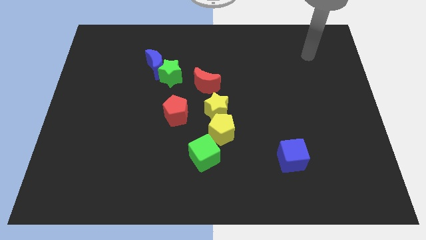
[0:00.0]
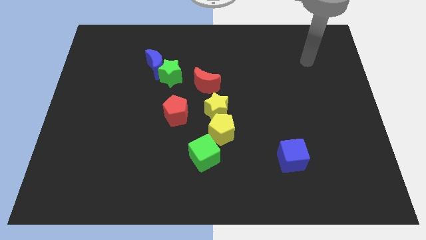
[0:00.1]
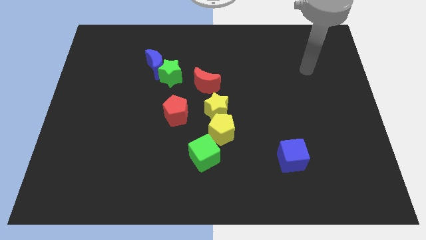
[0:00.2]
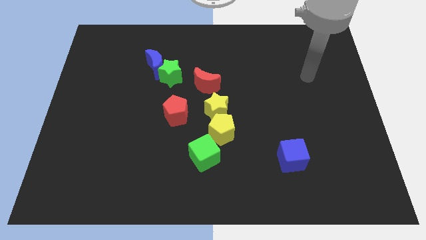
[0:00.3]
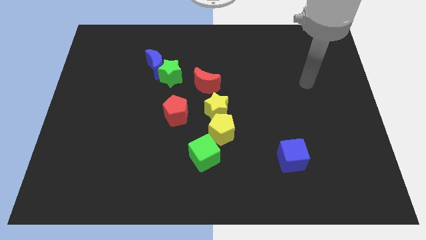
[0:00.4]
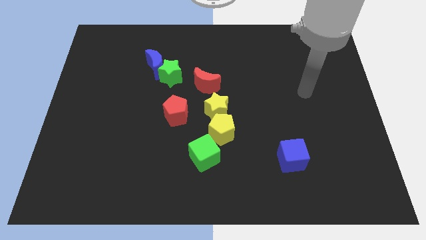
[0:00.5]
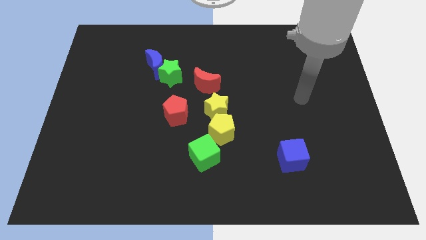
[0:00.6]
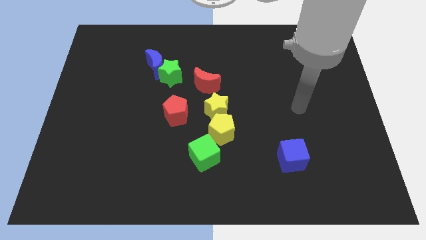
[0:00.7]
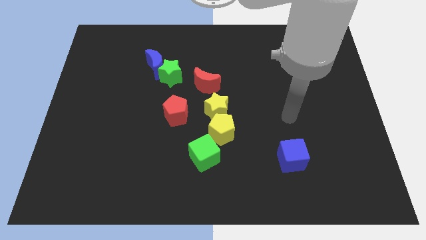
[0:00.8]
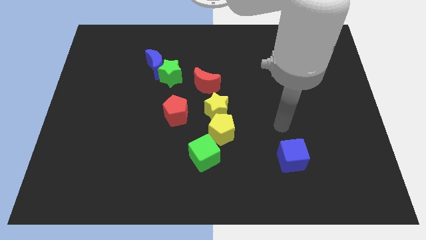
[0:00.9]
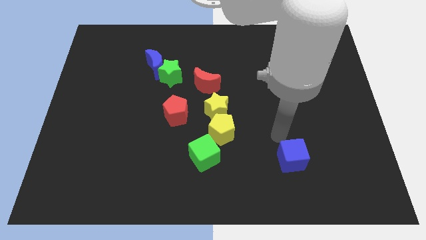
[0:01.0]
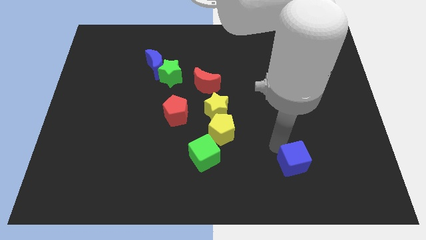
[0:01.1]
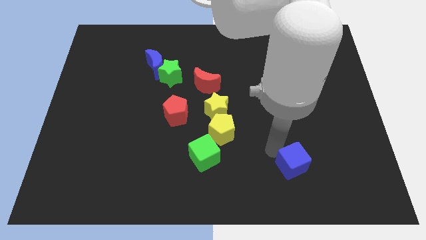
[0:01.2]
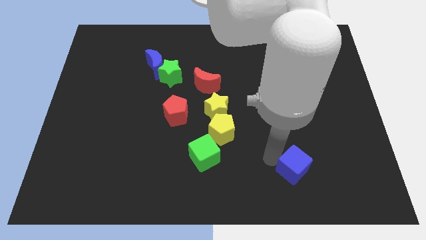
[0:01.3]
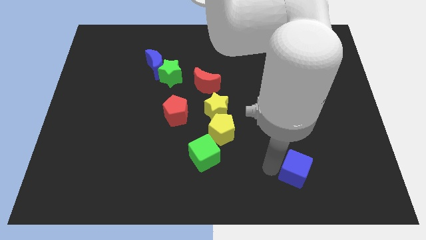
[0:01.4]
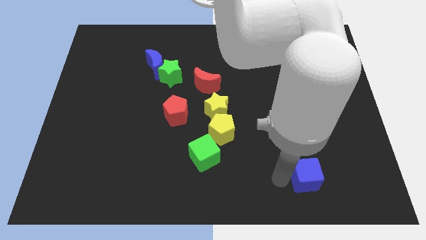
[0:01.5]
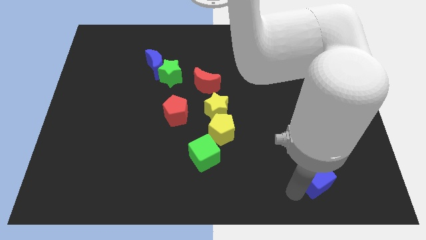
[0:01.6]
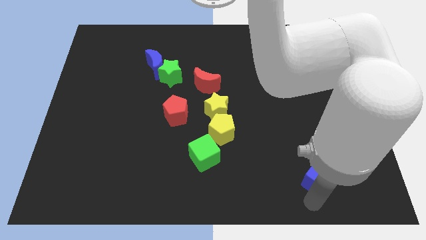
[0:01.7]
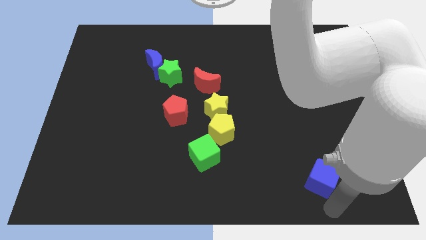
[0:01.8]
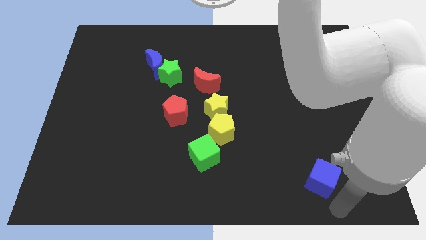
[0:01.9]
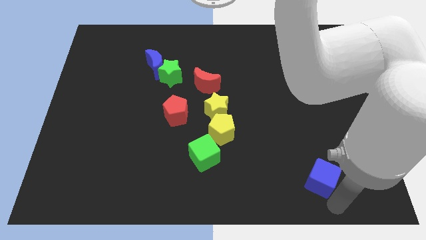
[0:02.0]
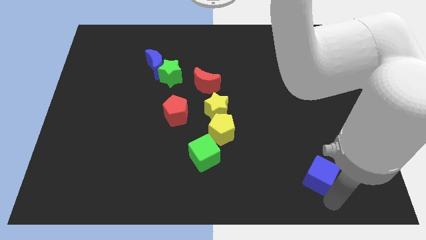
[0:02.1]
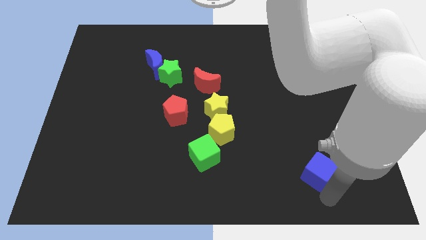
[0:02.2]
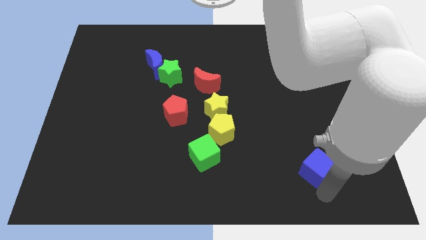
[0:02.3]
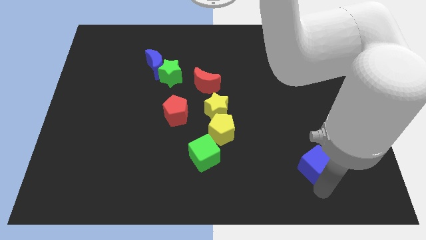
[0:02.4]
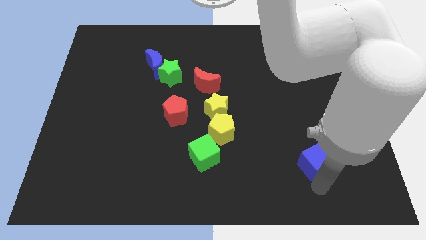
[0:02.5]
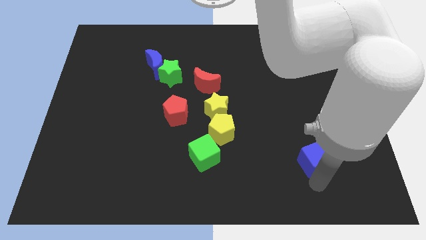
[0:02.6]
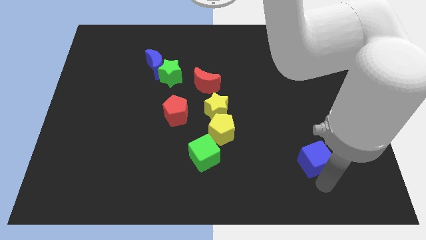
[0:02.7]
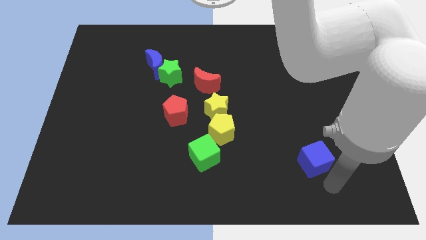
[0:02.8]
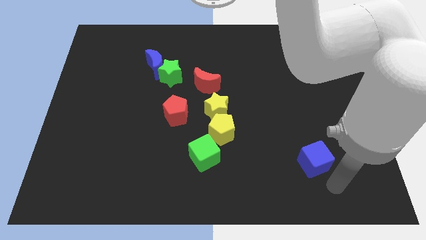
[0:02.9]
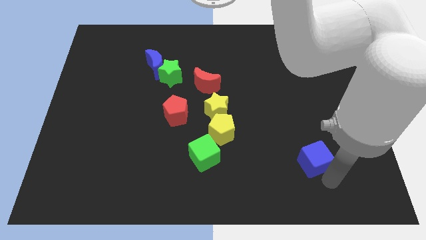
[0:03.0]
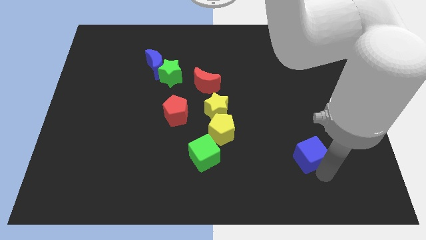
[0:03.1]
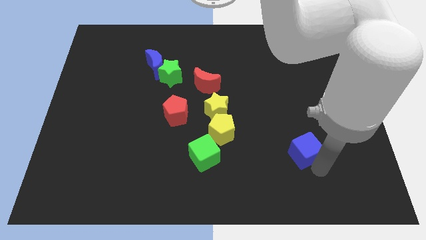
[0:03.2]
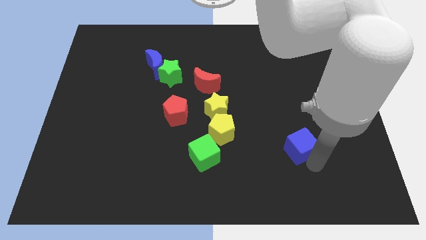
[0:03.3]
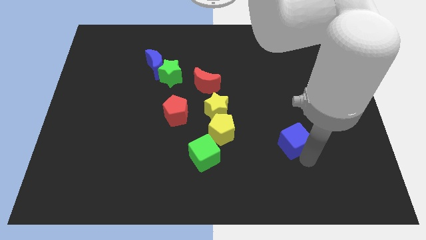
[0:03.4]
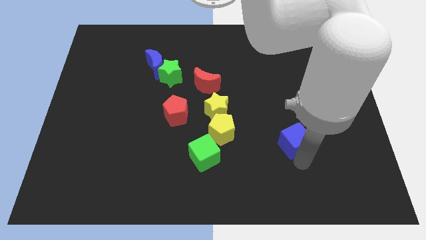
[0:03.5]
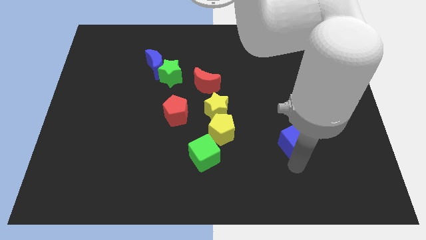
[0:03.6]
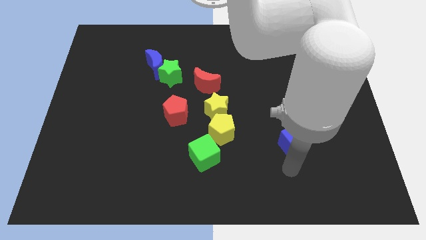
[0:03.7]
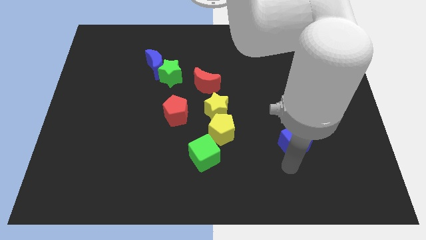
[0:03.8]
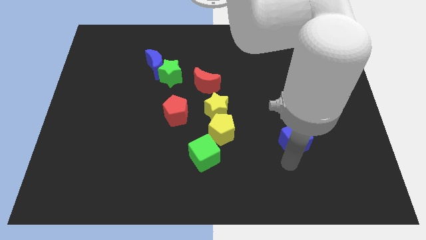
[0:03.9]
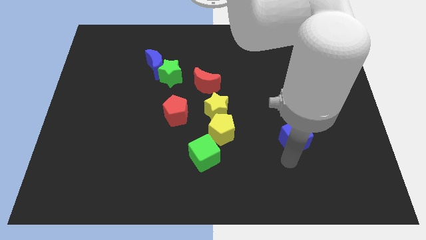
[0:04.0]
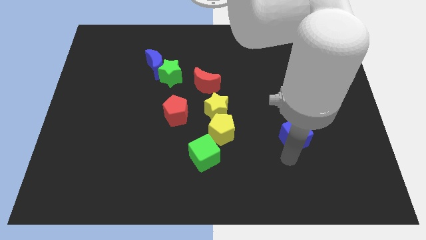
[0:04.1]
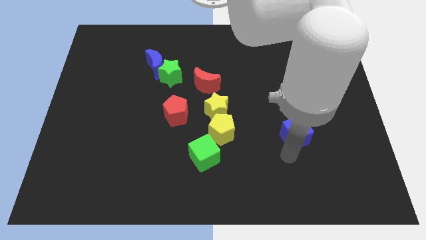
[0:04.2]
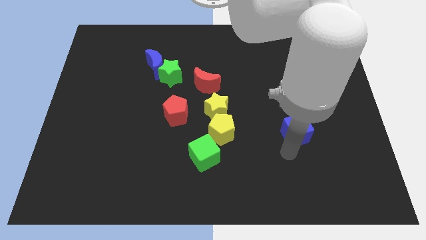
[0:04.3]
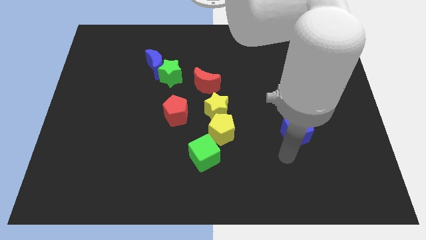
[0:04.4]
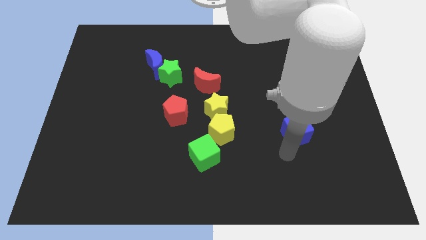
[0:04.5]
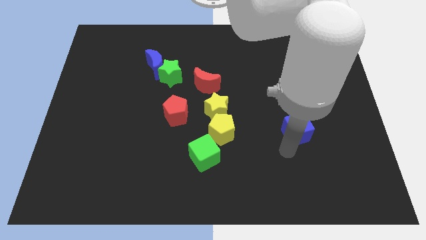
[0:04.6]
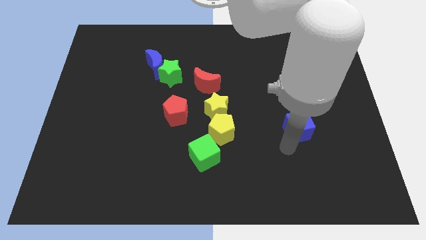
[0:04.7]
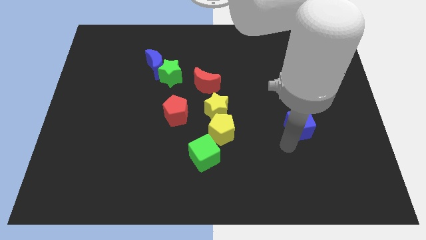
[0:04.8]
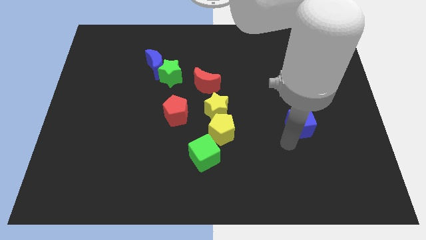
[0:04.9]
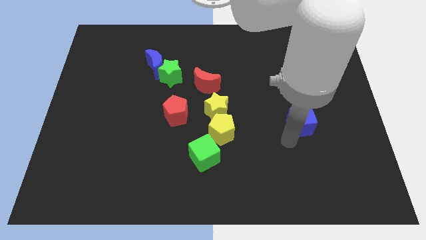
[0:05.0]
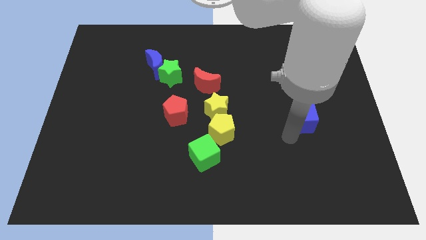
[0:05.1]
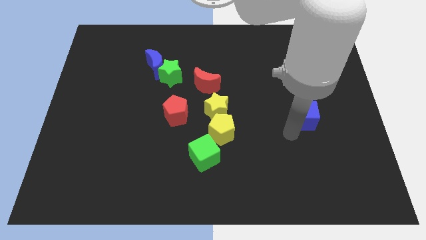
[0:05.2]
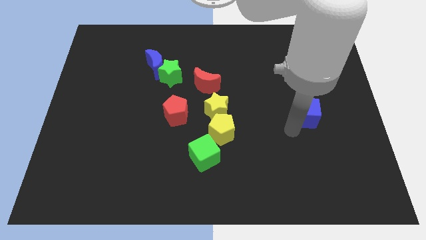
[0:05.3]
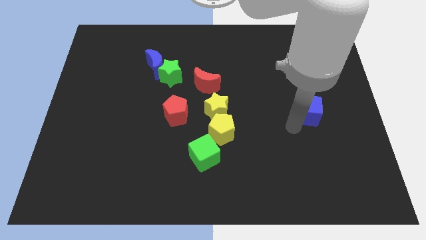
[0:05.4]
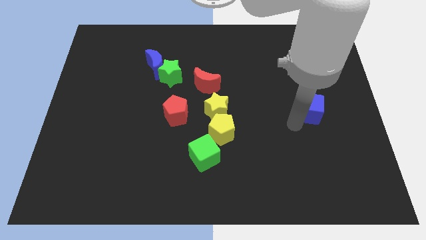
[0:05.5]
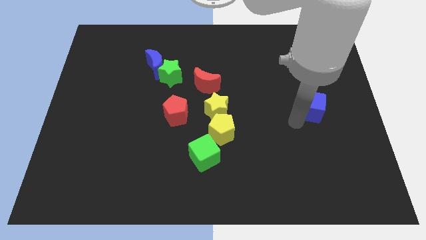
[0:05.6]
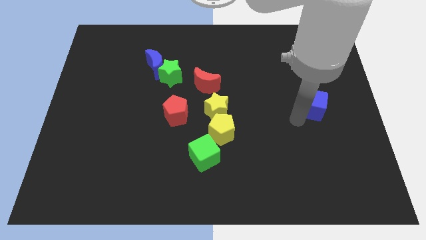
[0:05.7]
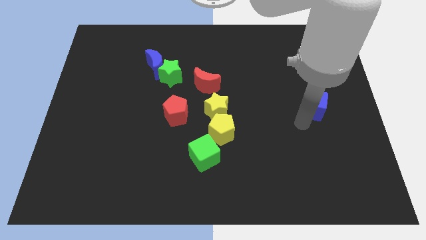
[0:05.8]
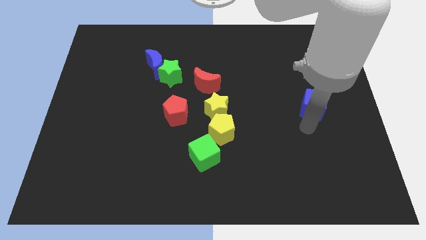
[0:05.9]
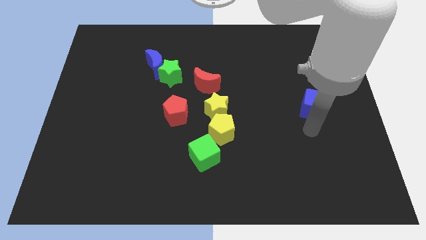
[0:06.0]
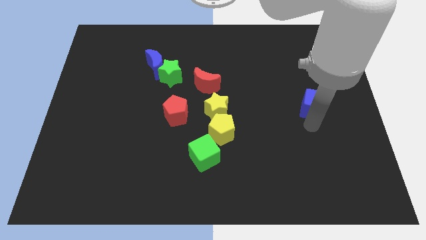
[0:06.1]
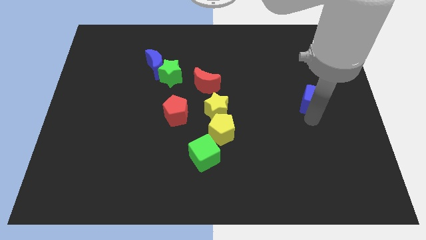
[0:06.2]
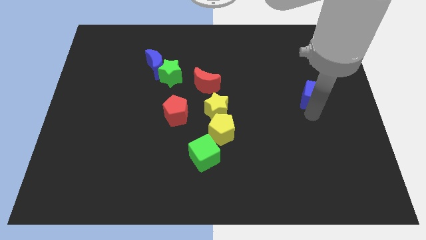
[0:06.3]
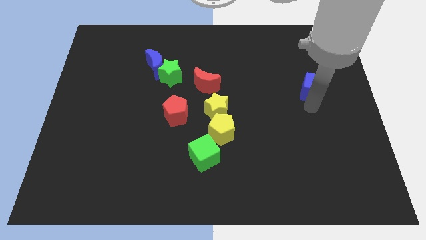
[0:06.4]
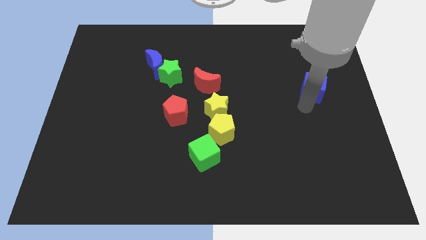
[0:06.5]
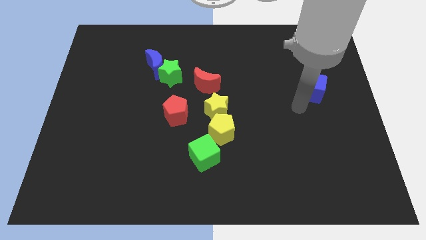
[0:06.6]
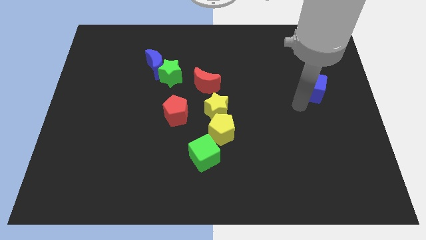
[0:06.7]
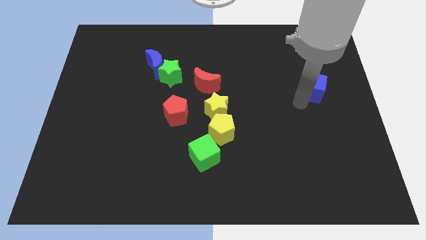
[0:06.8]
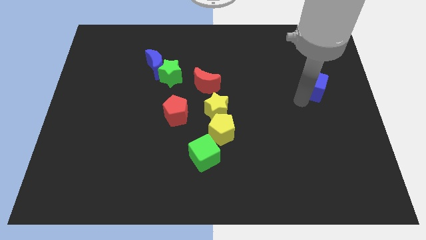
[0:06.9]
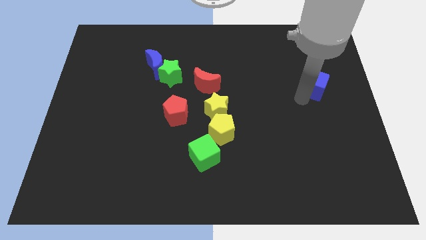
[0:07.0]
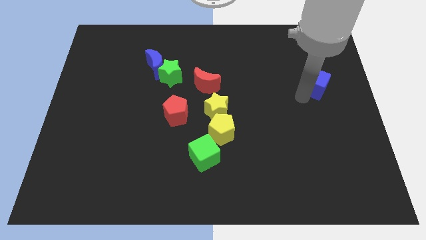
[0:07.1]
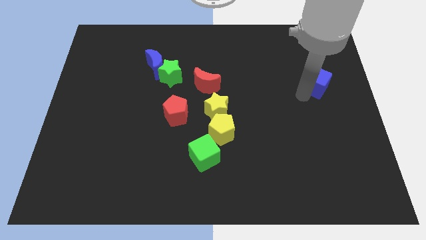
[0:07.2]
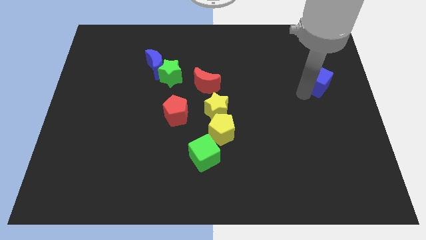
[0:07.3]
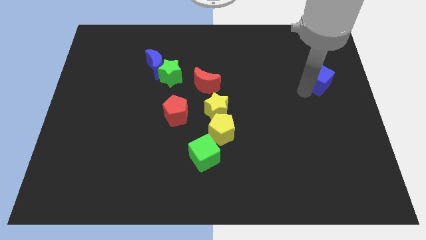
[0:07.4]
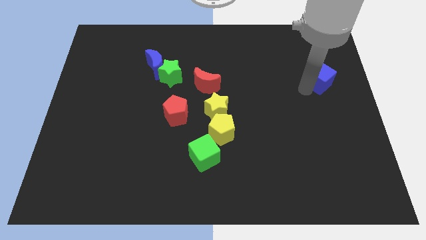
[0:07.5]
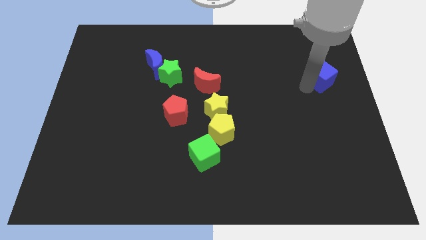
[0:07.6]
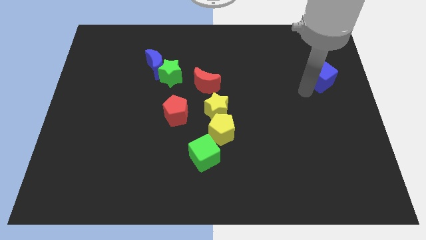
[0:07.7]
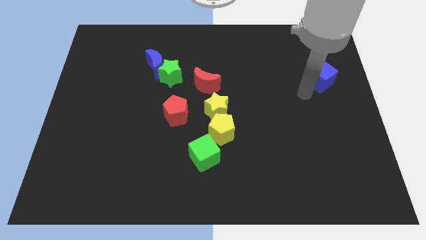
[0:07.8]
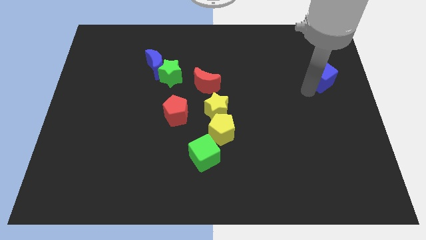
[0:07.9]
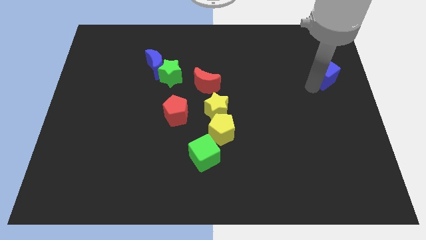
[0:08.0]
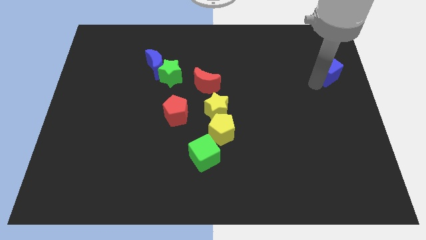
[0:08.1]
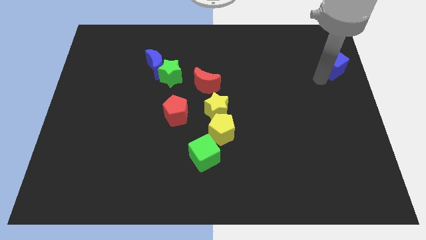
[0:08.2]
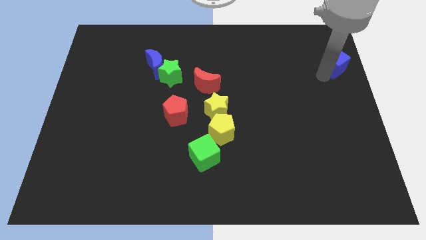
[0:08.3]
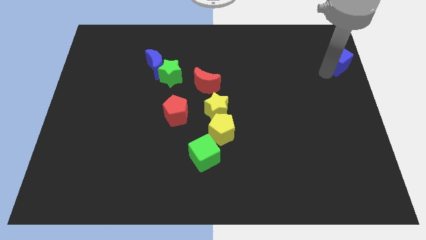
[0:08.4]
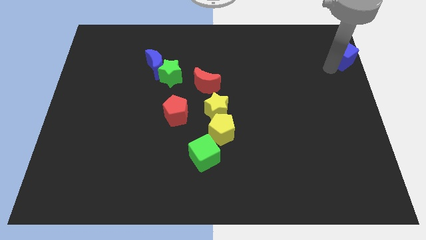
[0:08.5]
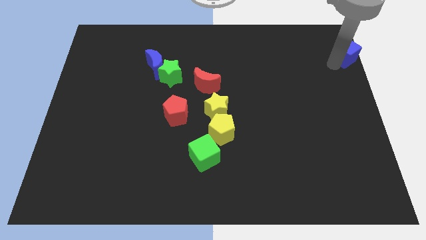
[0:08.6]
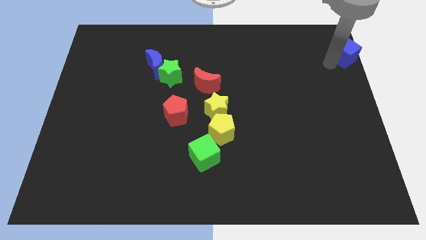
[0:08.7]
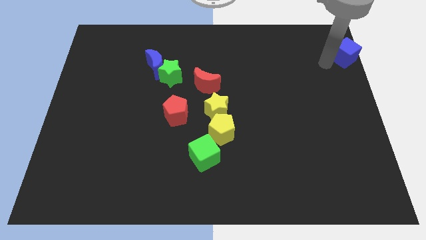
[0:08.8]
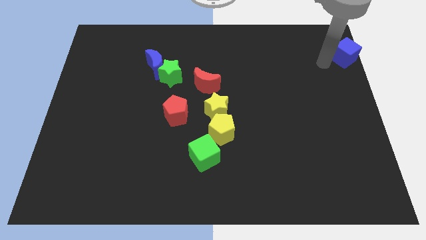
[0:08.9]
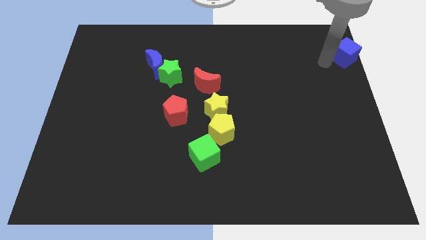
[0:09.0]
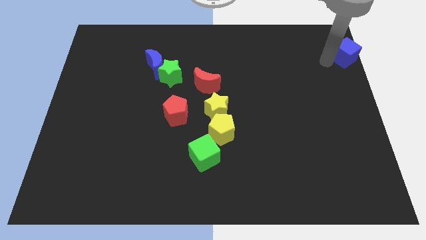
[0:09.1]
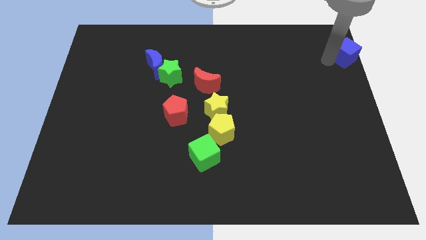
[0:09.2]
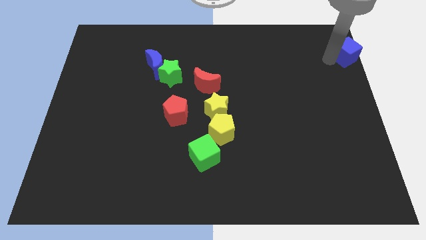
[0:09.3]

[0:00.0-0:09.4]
move the blue cube to the top right corner
